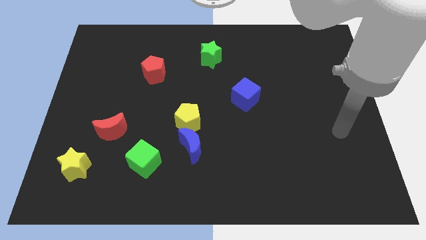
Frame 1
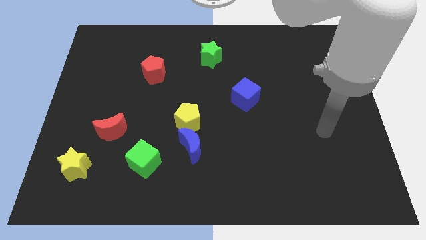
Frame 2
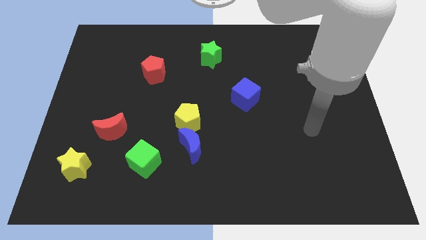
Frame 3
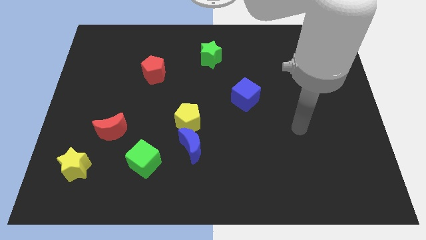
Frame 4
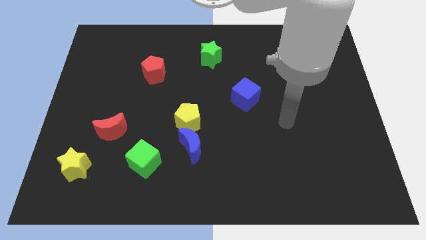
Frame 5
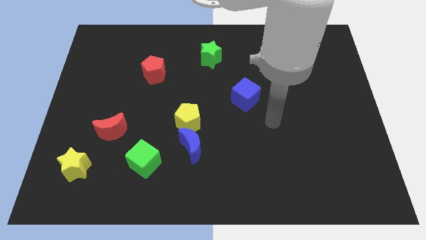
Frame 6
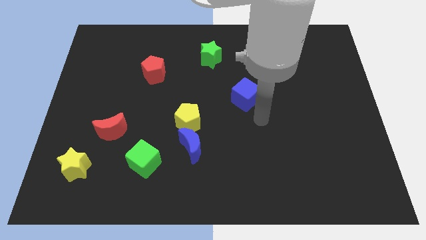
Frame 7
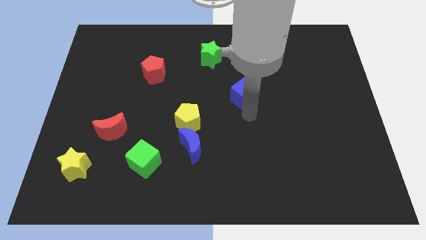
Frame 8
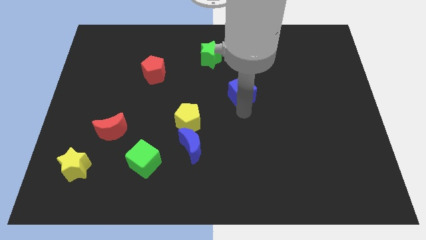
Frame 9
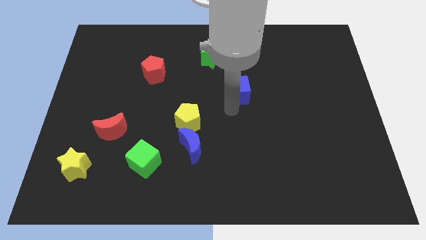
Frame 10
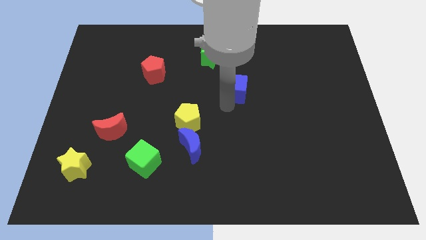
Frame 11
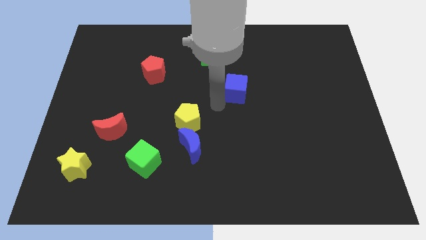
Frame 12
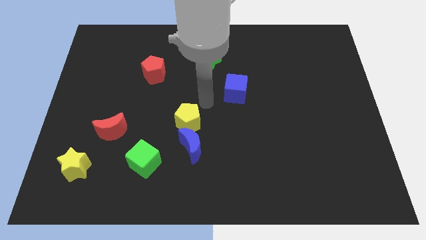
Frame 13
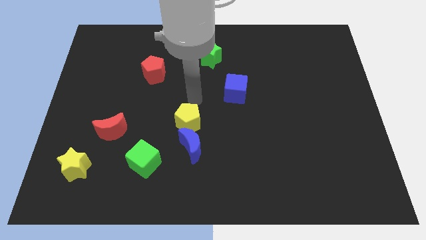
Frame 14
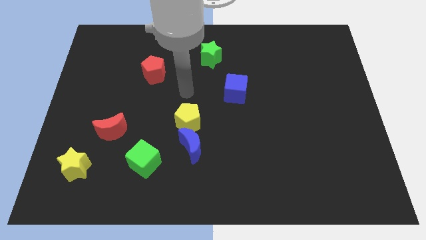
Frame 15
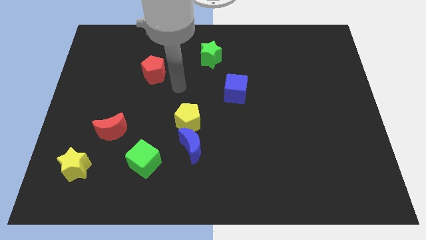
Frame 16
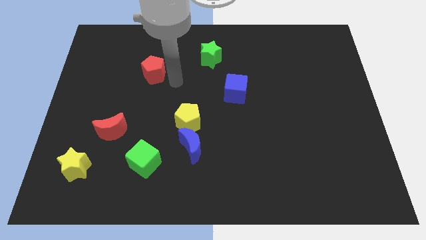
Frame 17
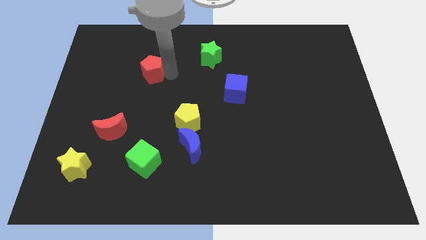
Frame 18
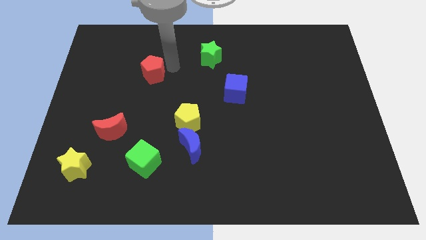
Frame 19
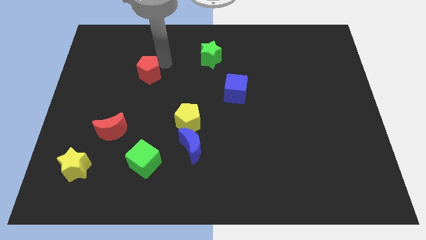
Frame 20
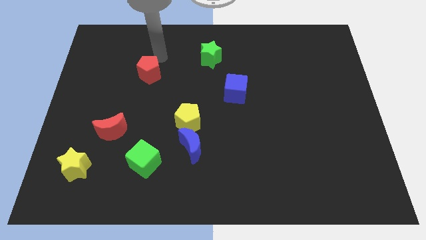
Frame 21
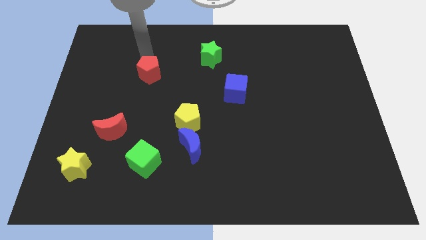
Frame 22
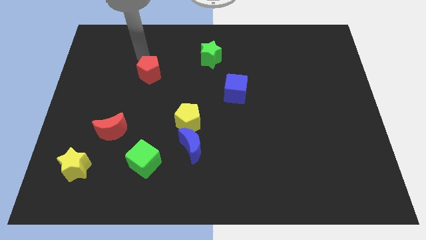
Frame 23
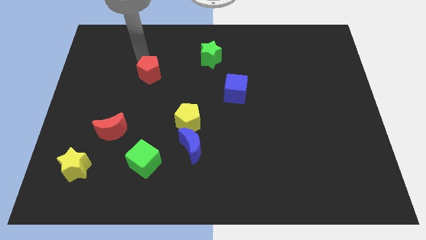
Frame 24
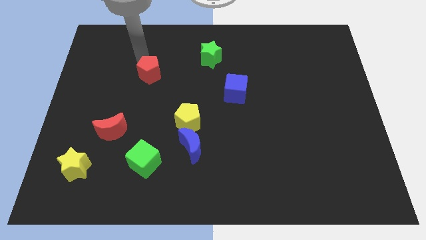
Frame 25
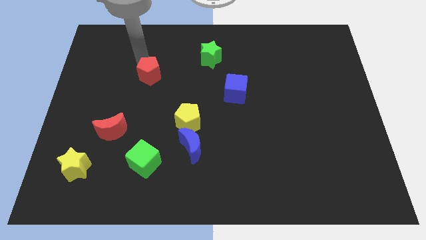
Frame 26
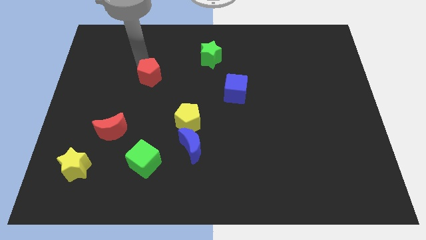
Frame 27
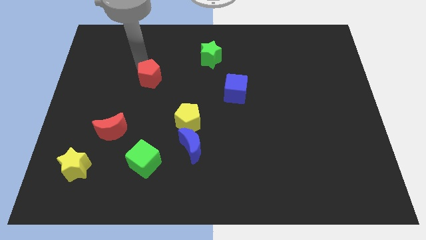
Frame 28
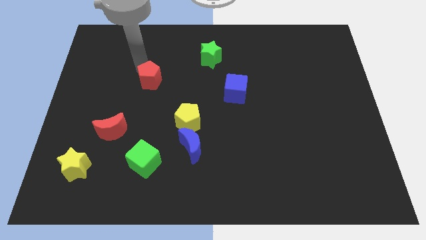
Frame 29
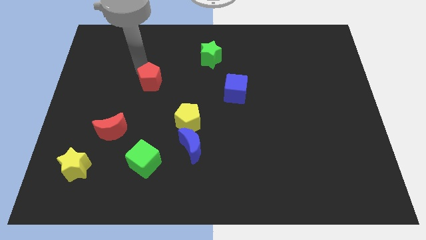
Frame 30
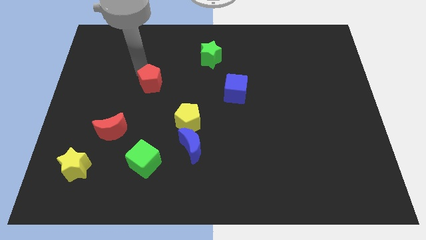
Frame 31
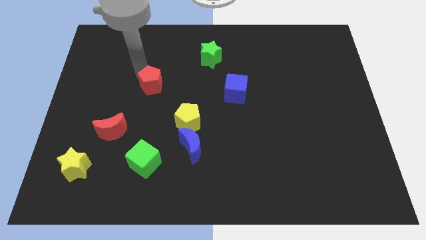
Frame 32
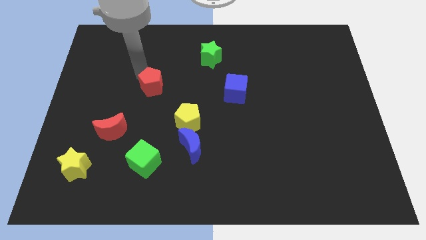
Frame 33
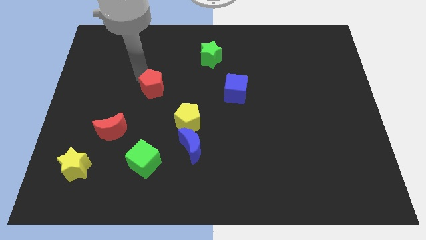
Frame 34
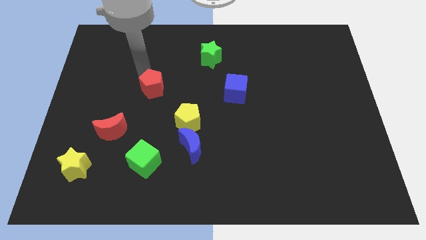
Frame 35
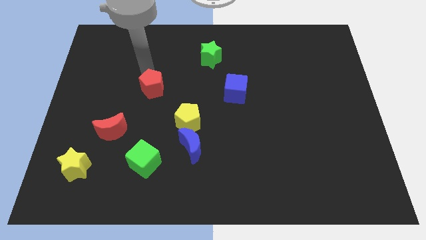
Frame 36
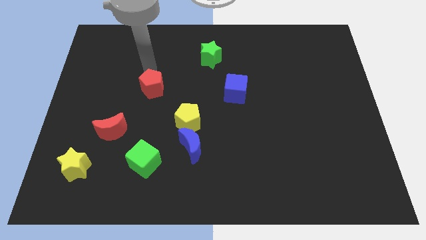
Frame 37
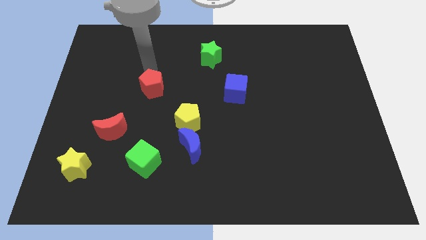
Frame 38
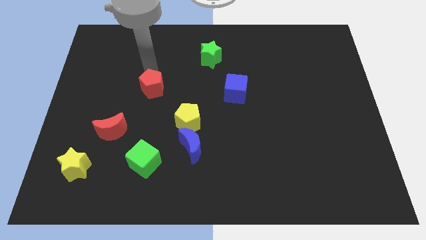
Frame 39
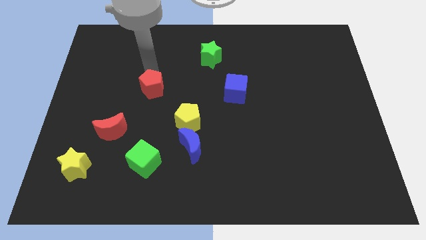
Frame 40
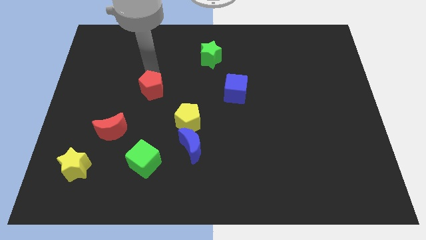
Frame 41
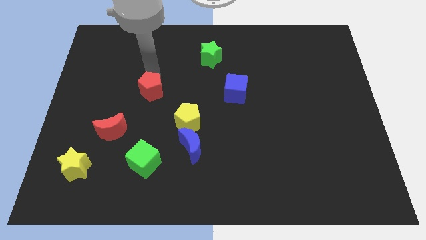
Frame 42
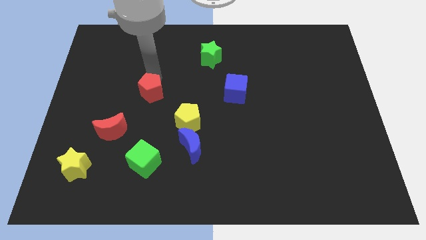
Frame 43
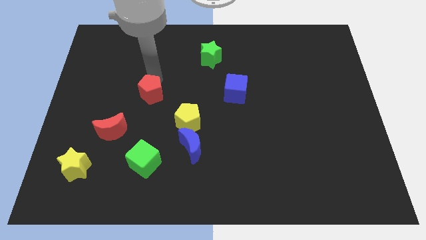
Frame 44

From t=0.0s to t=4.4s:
push the red pentagon somewhat down

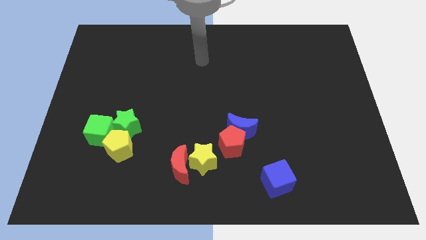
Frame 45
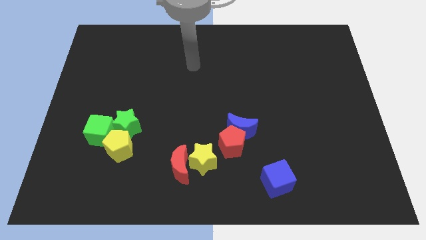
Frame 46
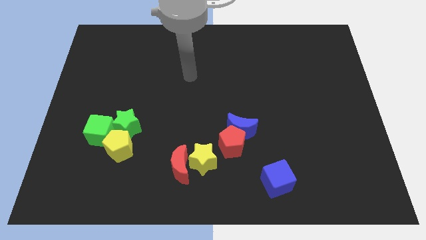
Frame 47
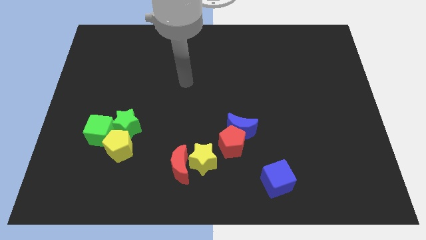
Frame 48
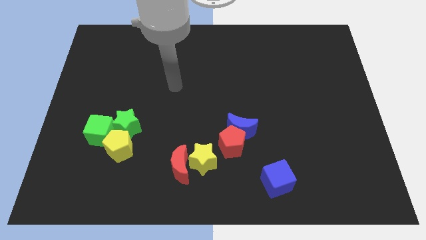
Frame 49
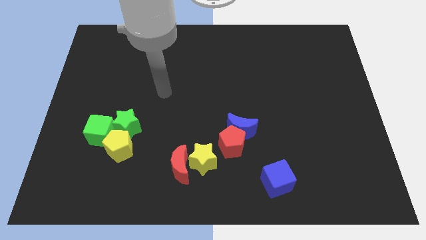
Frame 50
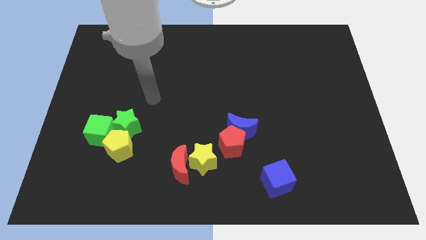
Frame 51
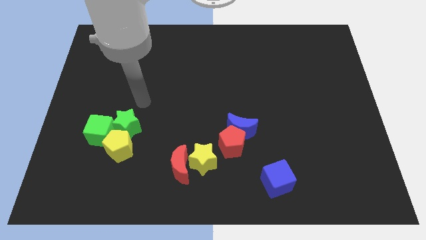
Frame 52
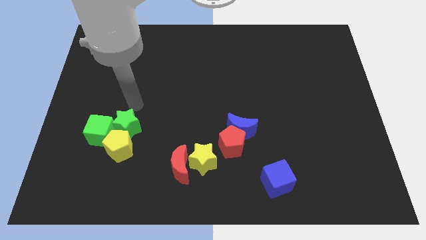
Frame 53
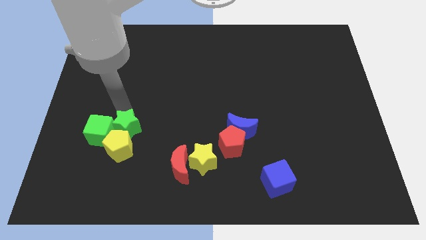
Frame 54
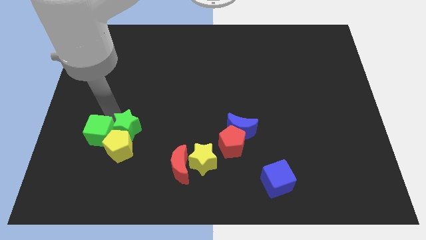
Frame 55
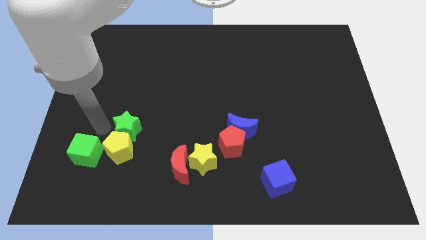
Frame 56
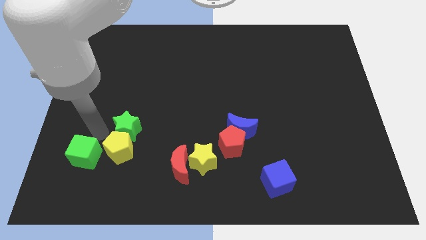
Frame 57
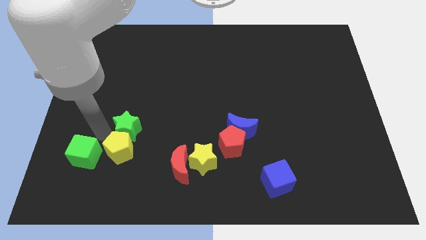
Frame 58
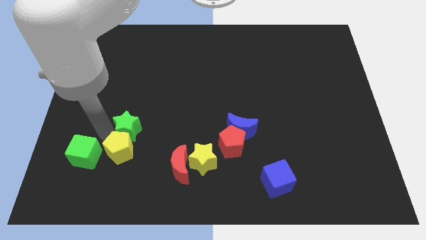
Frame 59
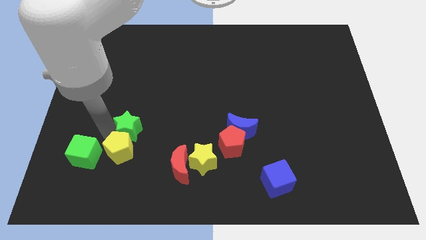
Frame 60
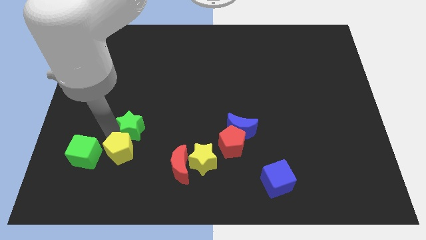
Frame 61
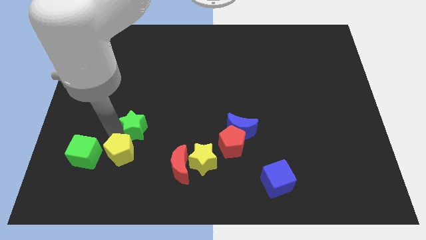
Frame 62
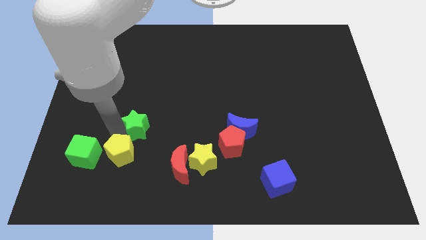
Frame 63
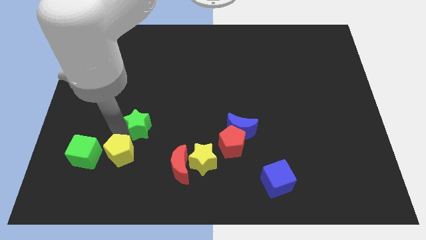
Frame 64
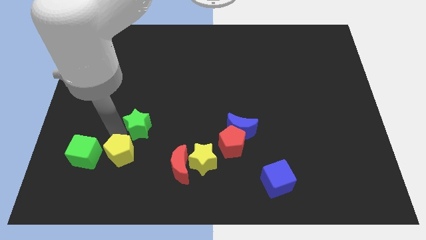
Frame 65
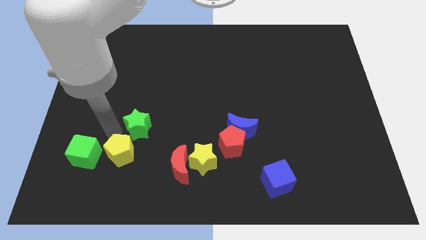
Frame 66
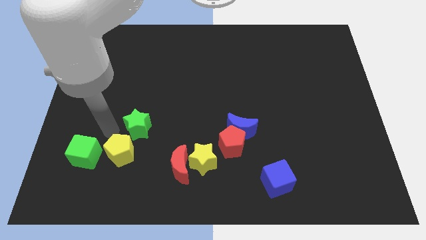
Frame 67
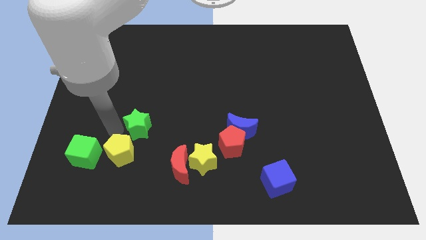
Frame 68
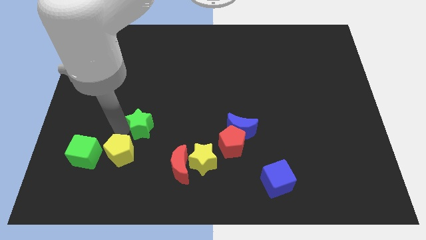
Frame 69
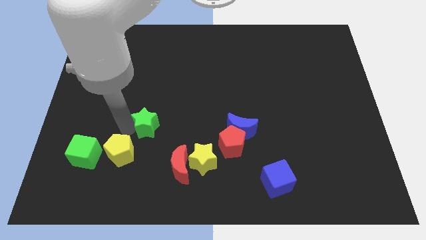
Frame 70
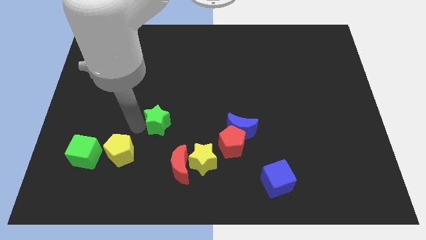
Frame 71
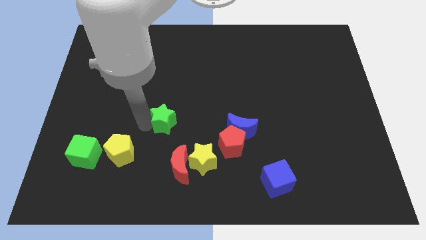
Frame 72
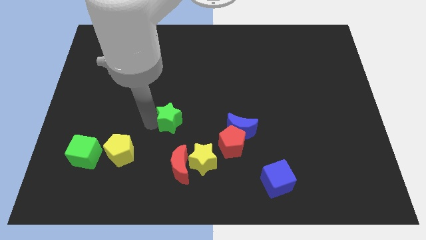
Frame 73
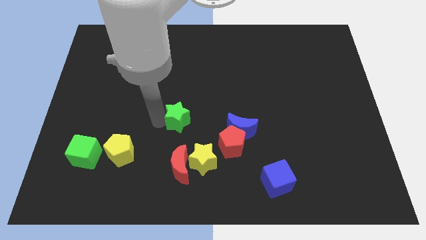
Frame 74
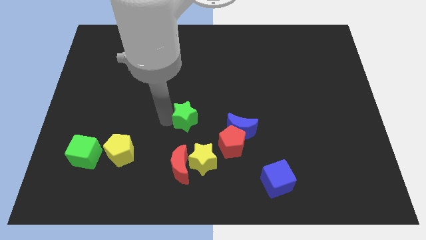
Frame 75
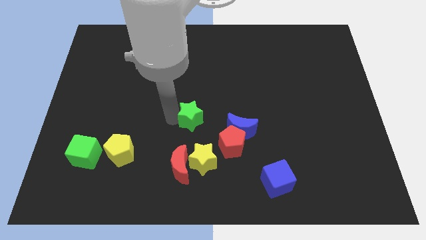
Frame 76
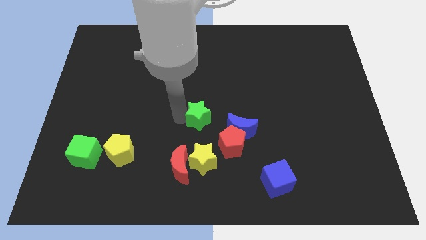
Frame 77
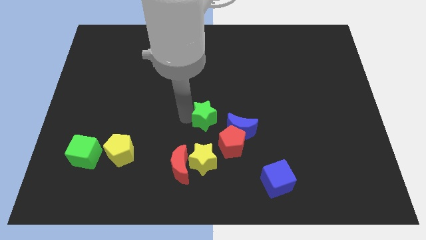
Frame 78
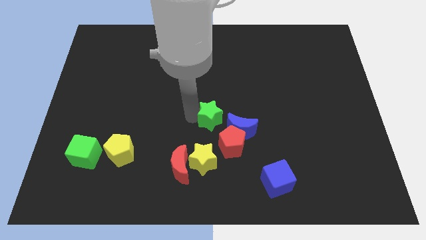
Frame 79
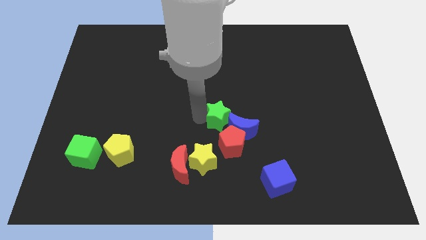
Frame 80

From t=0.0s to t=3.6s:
move the green star to the right
